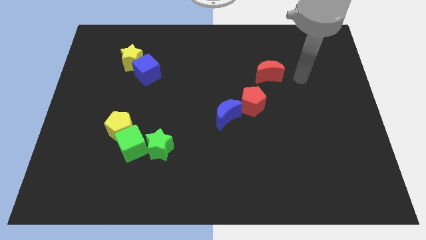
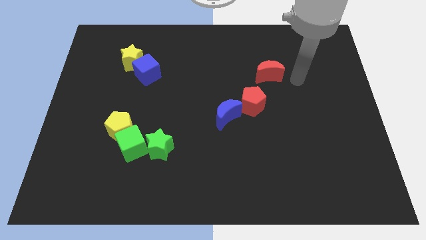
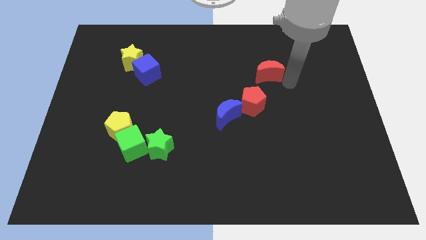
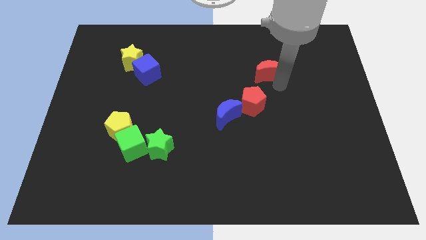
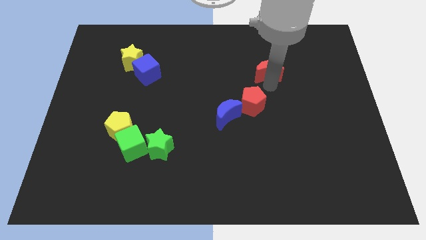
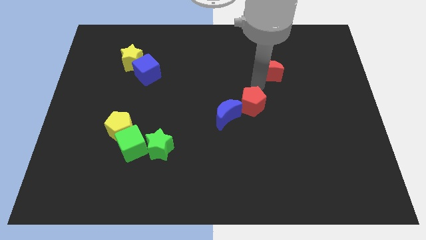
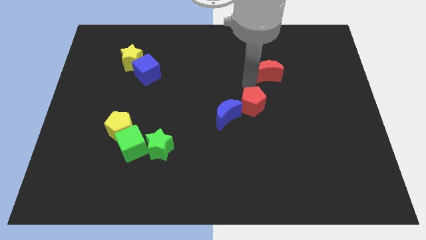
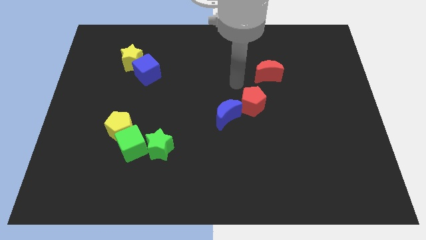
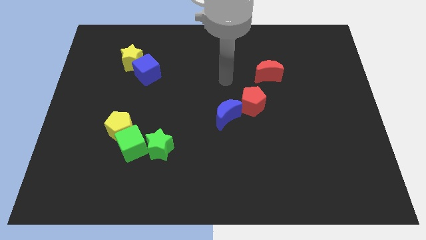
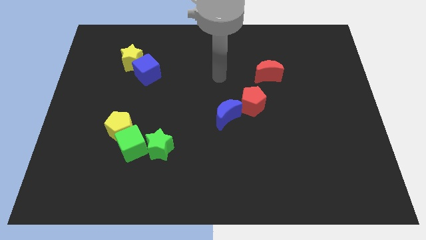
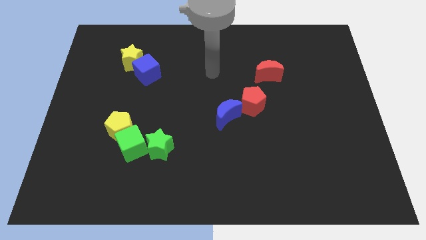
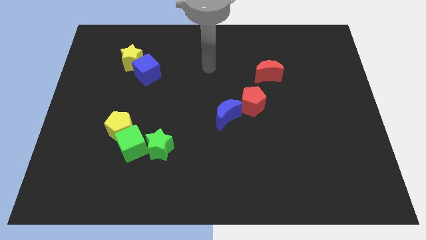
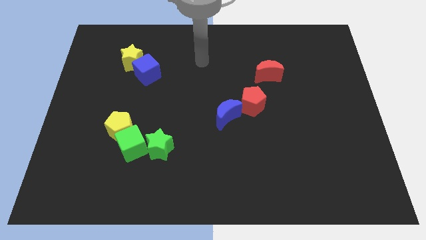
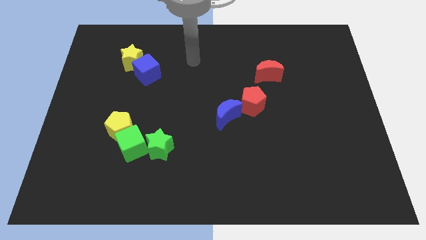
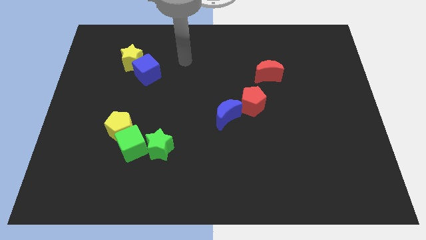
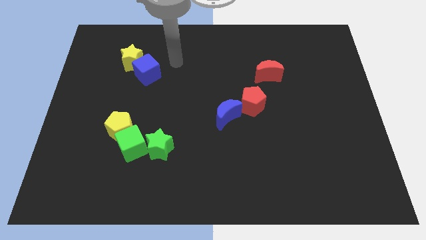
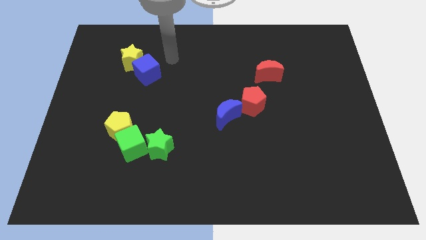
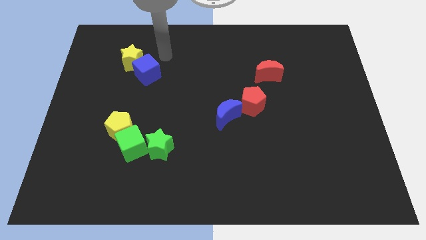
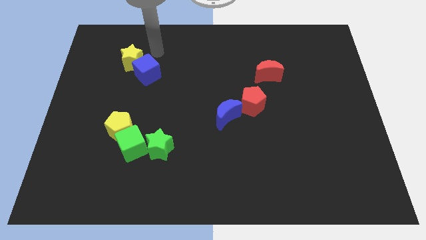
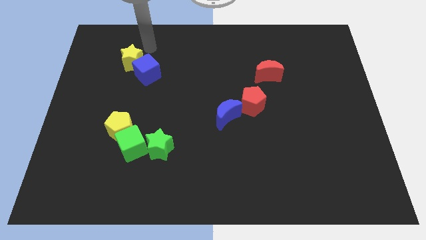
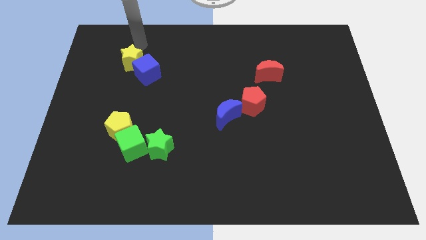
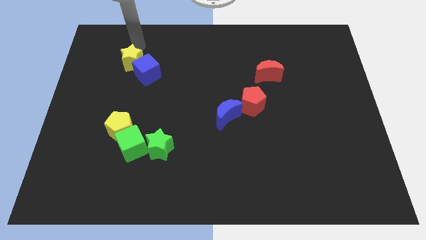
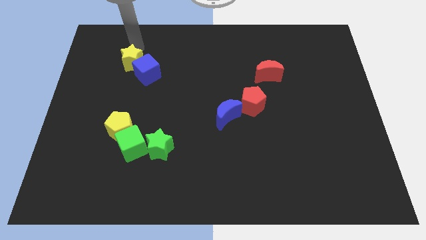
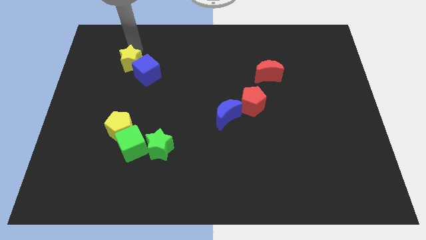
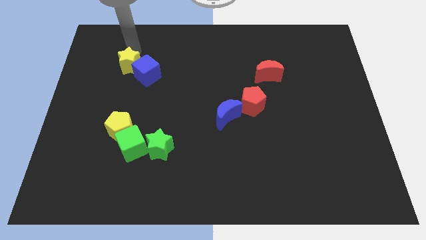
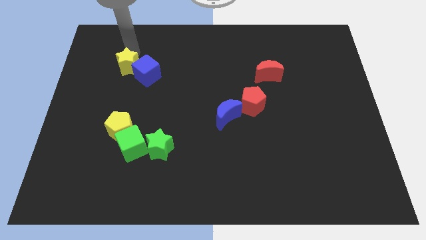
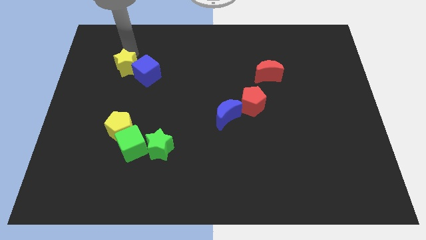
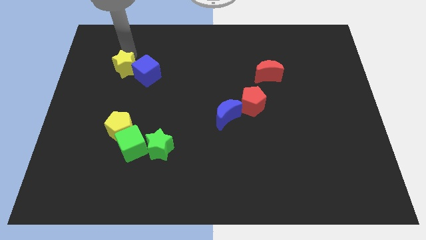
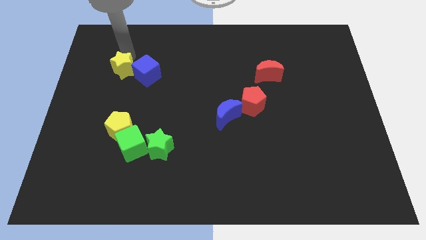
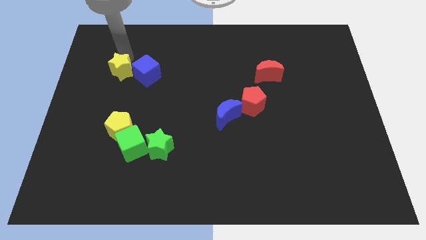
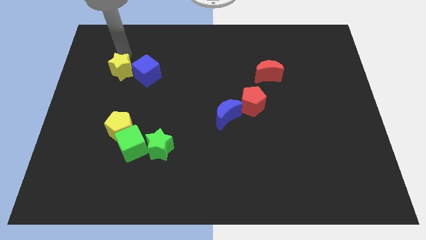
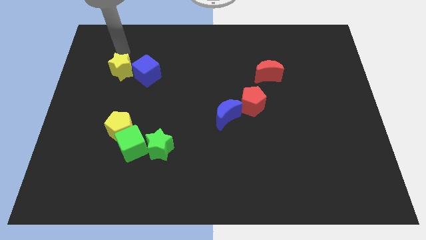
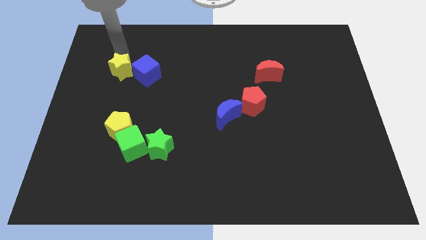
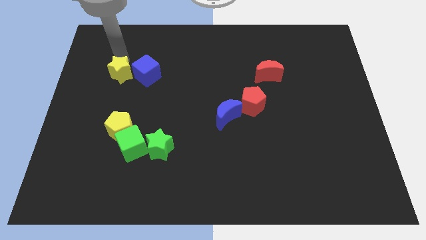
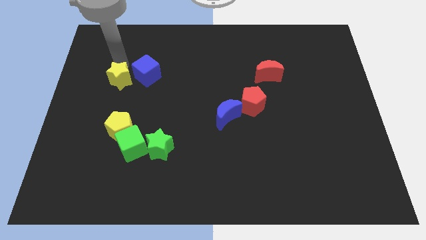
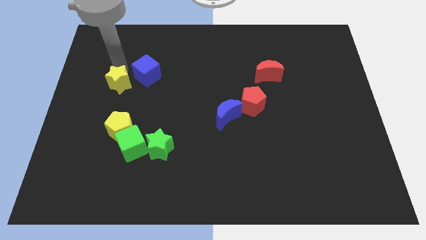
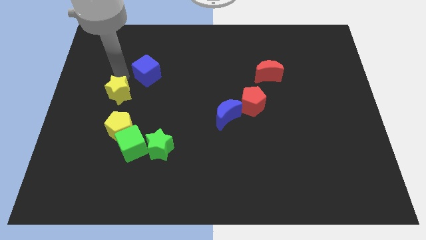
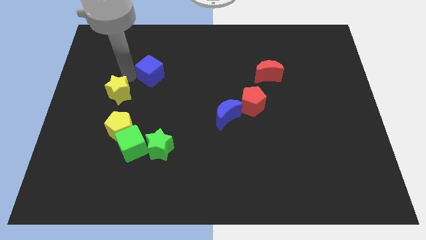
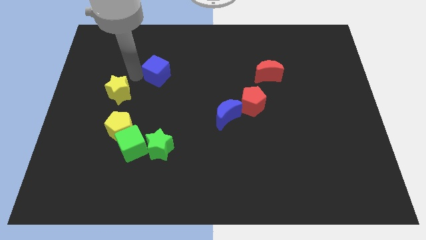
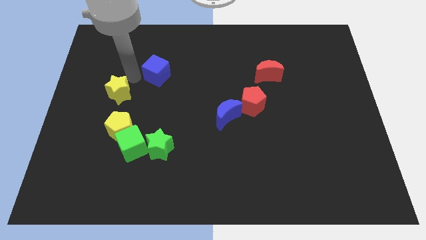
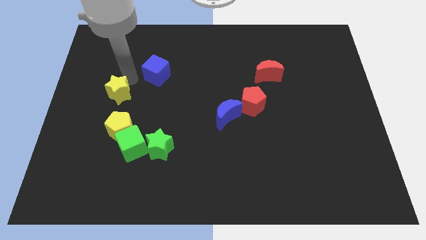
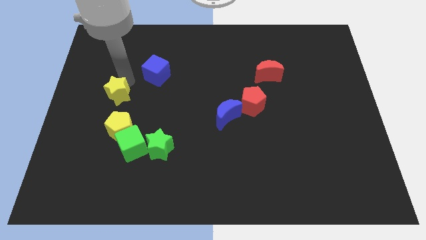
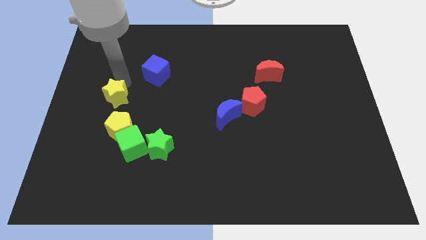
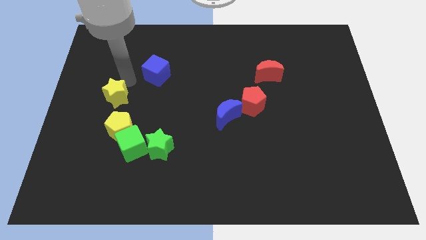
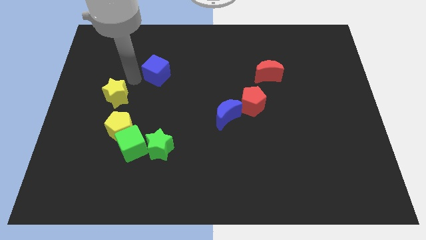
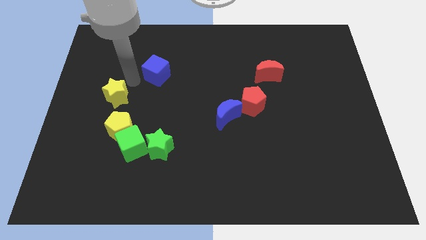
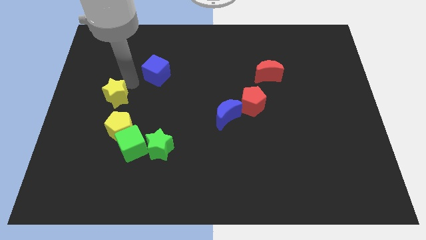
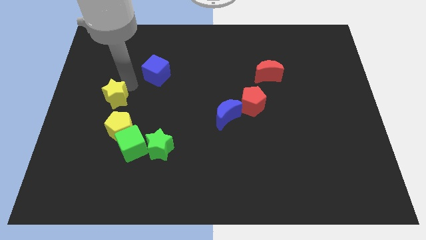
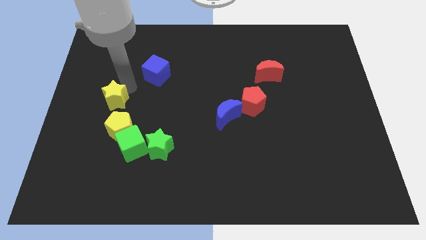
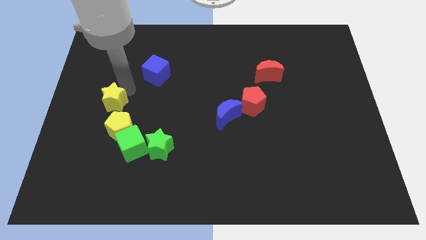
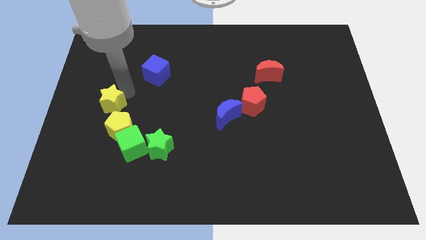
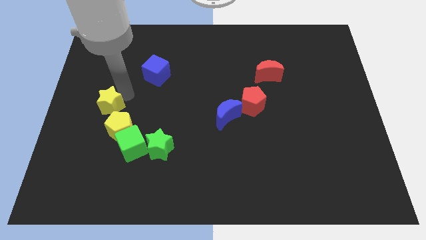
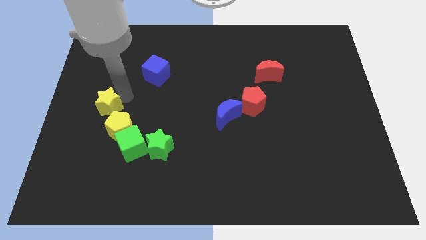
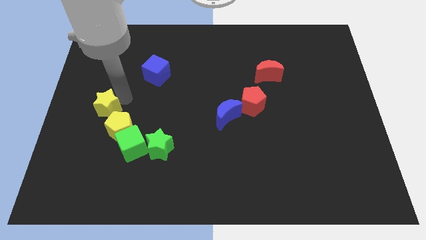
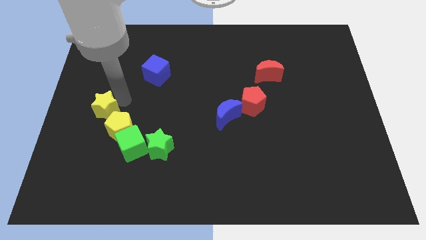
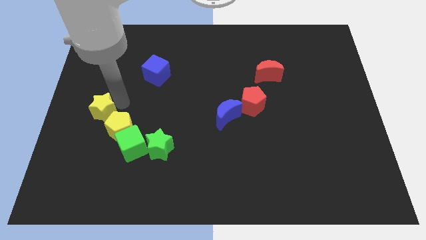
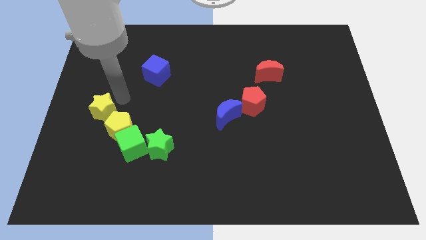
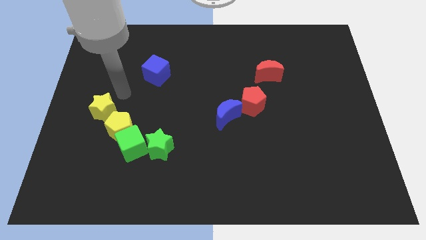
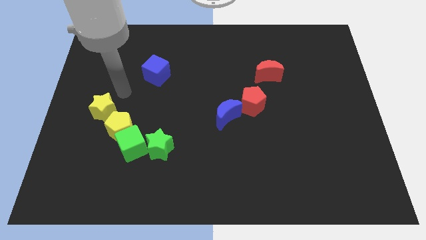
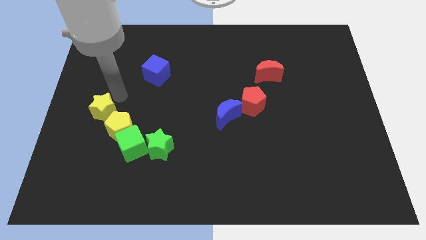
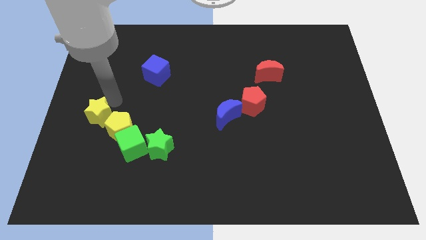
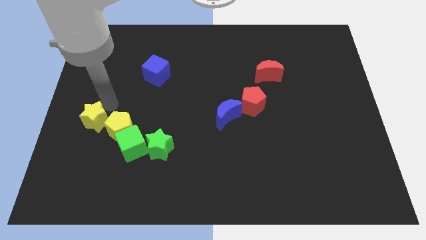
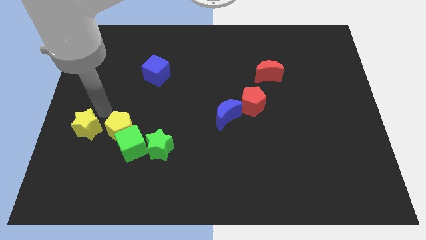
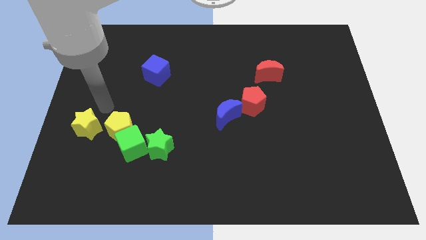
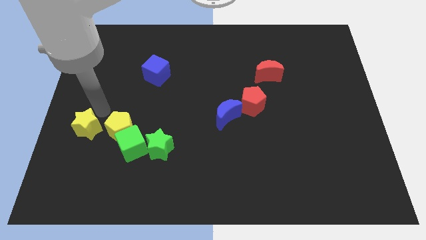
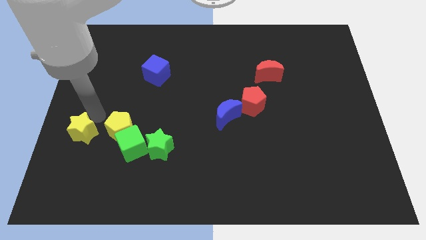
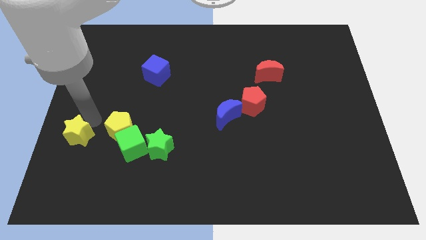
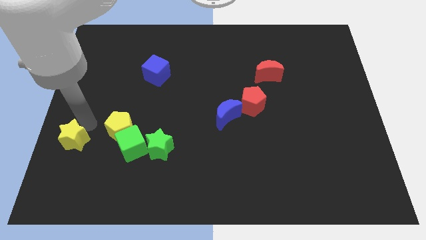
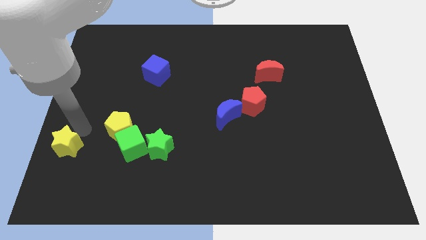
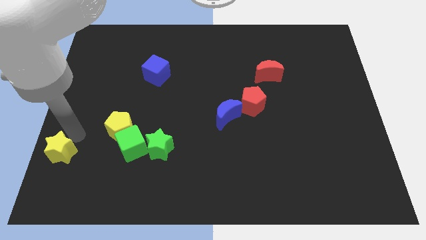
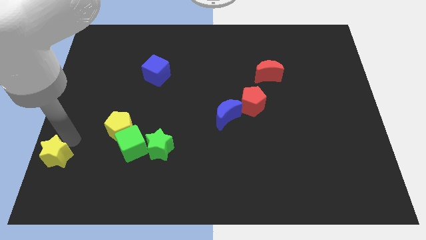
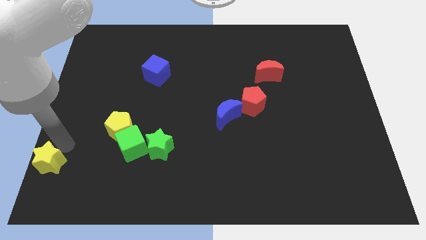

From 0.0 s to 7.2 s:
push the yellow star to the bottom left of the board
